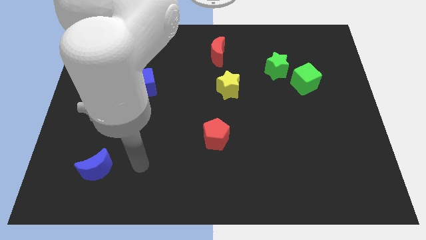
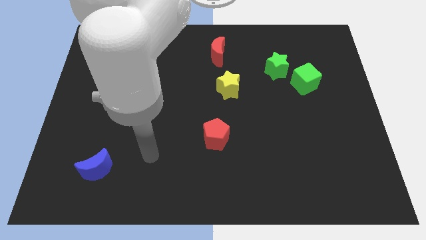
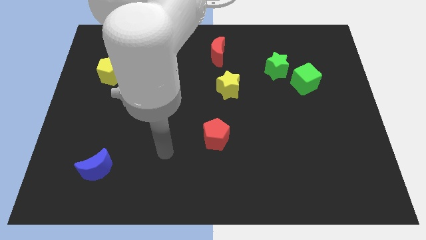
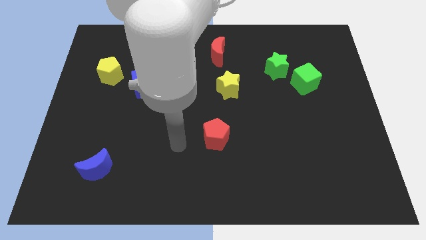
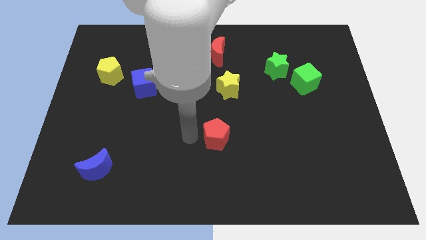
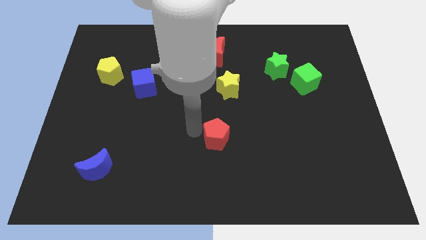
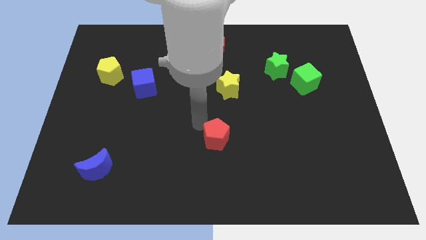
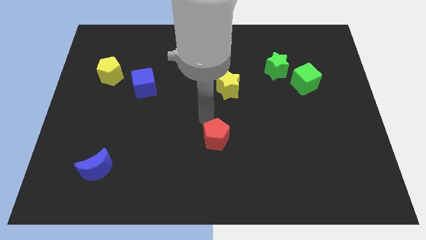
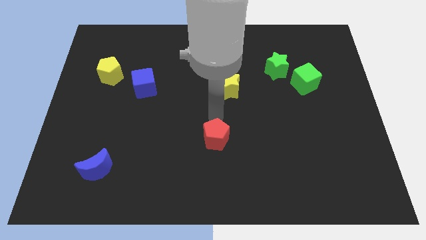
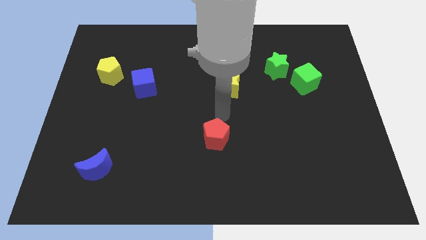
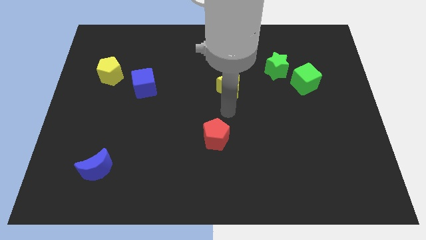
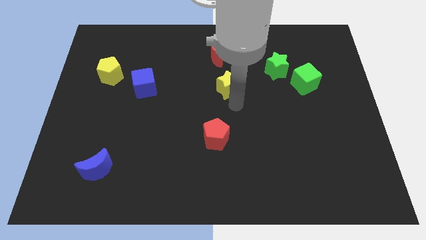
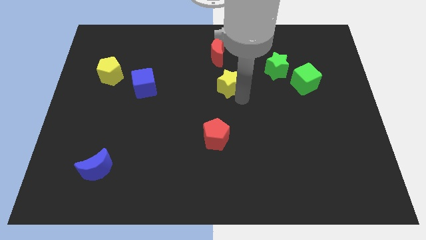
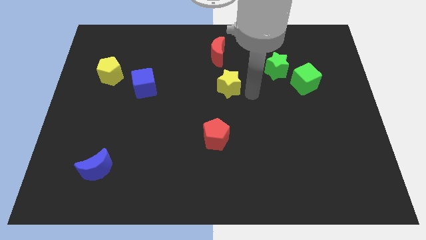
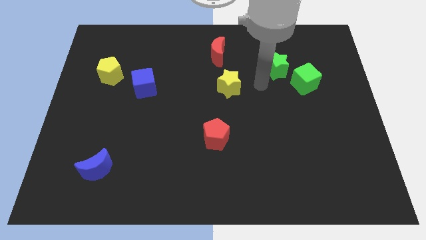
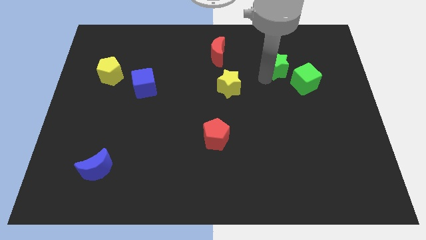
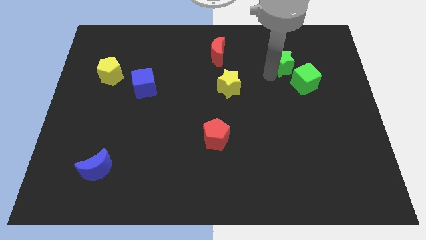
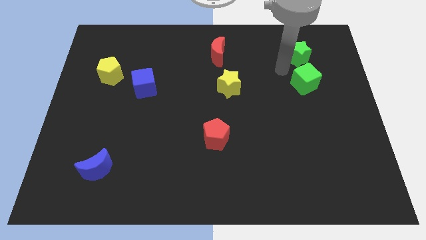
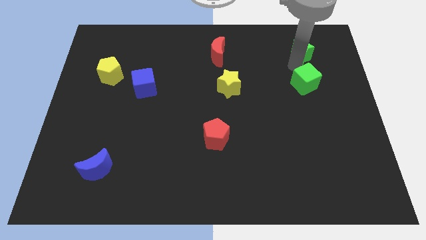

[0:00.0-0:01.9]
separate the green cube from the green star

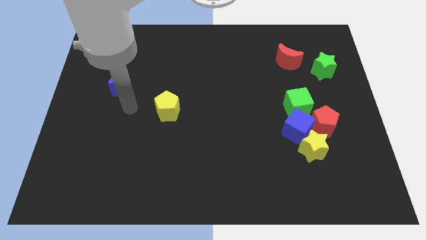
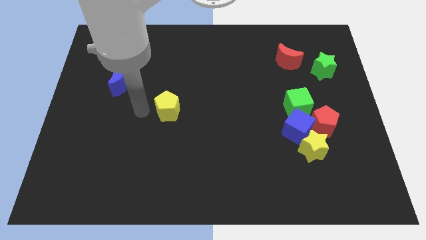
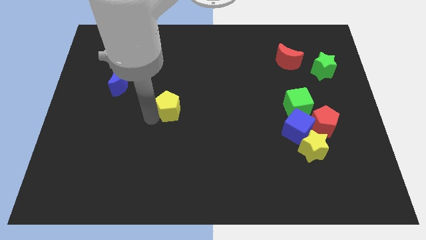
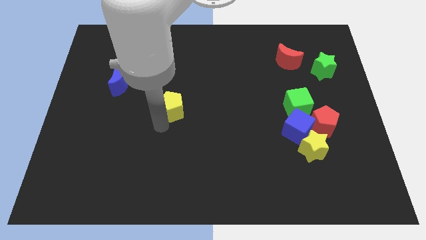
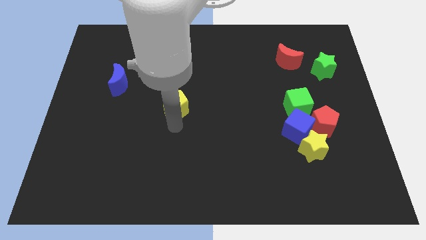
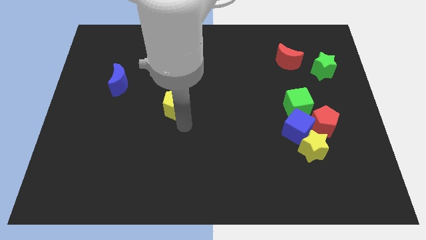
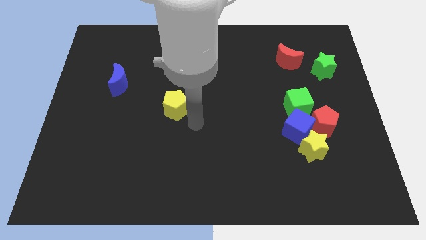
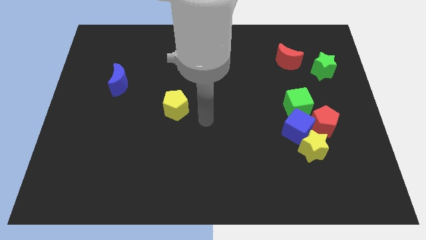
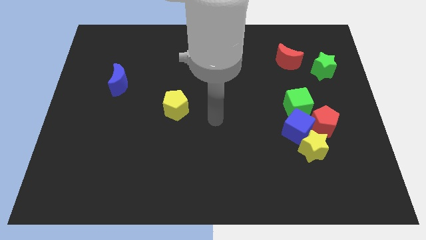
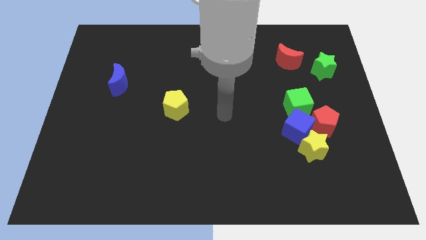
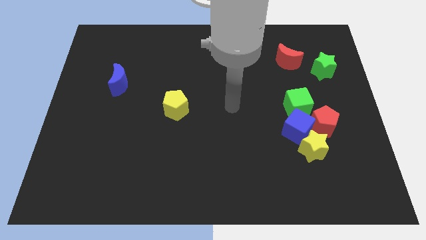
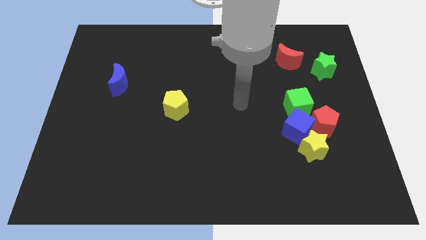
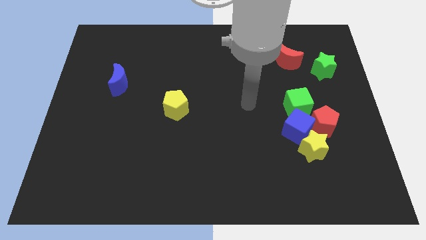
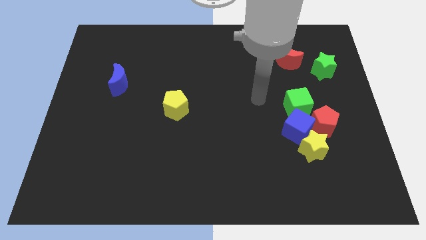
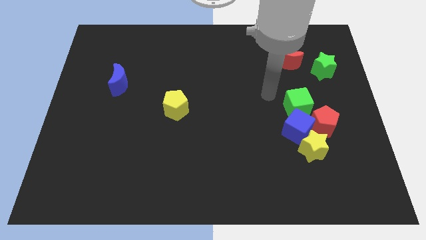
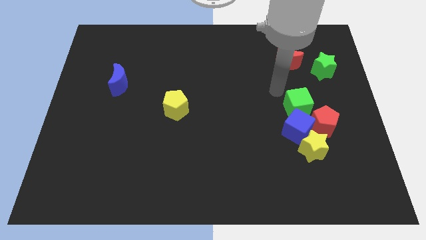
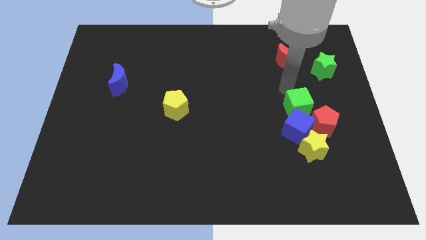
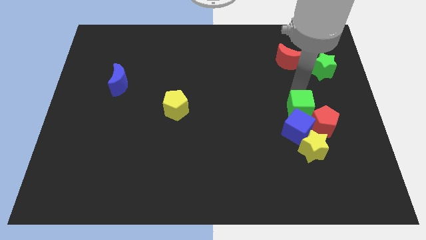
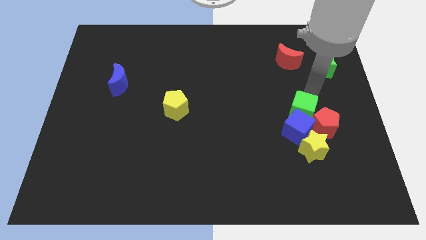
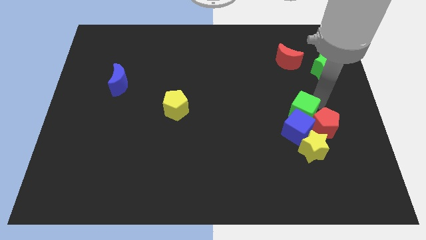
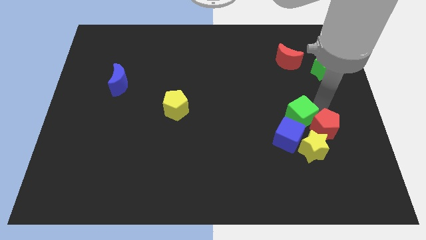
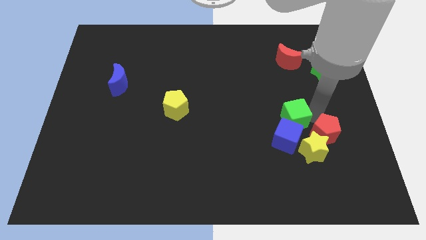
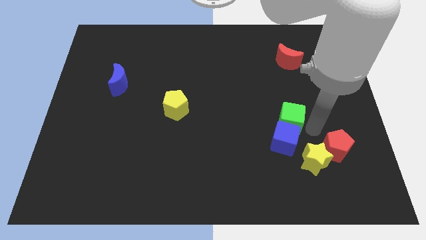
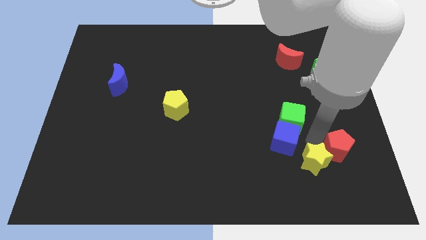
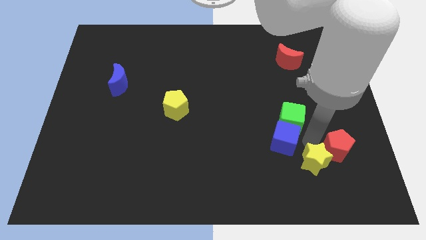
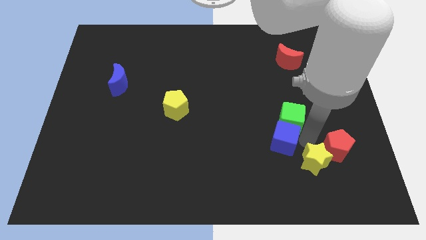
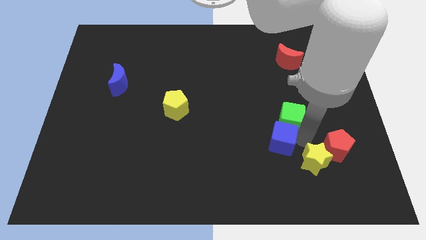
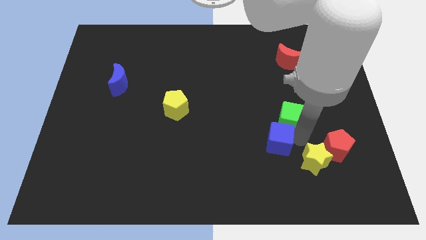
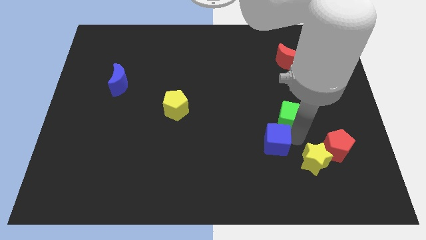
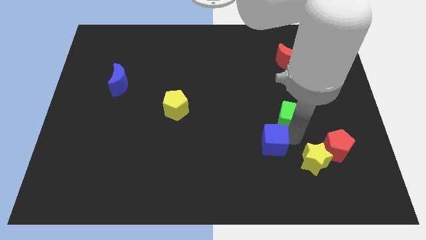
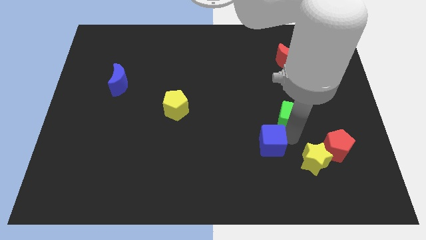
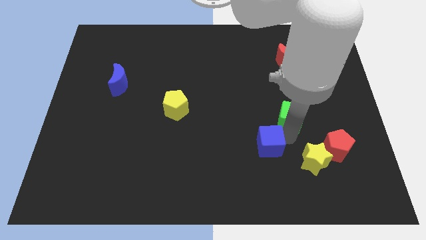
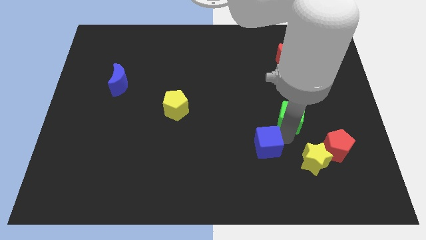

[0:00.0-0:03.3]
move the blue cube away from the group of blocks

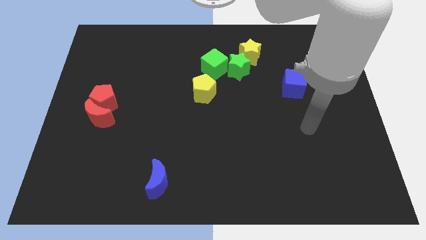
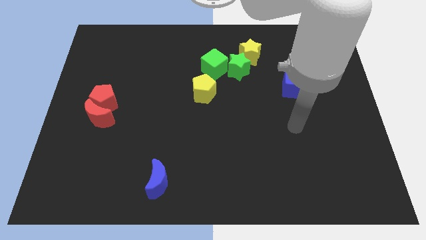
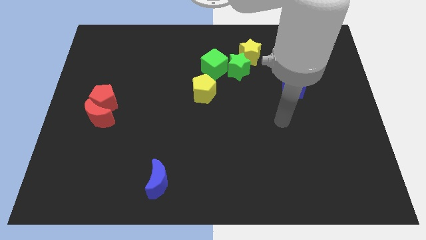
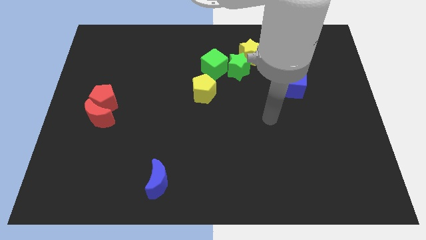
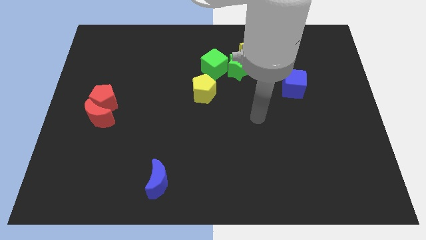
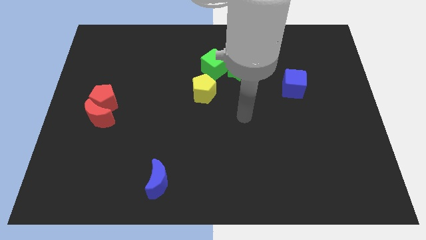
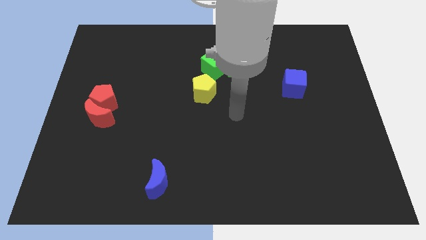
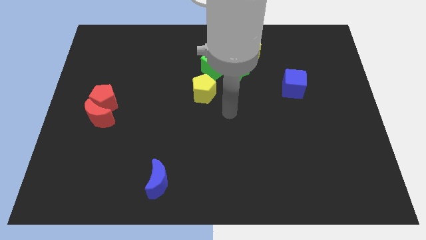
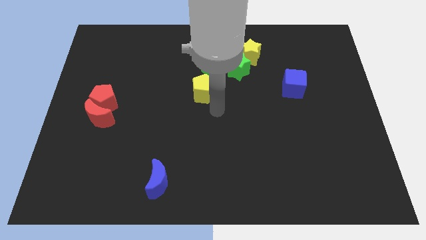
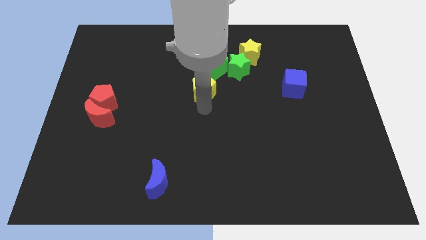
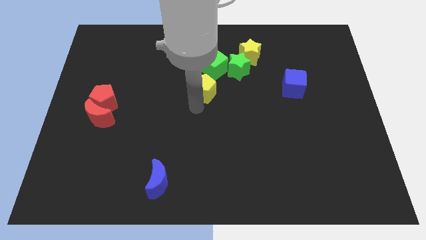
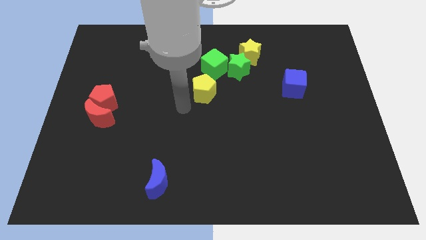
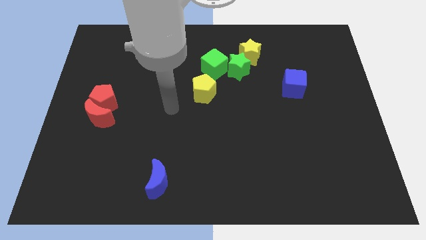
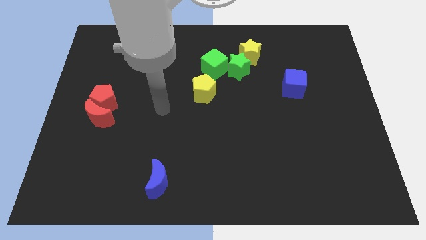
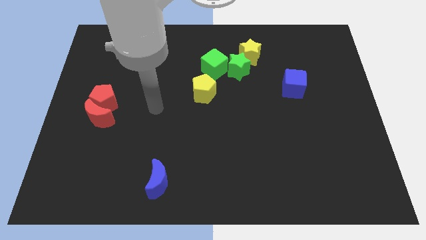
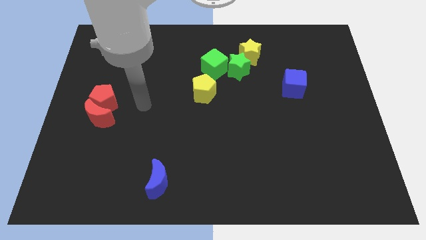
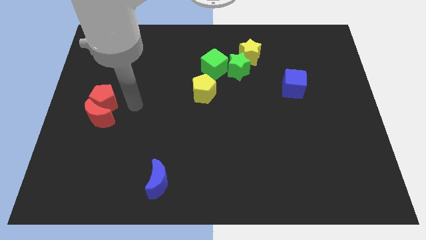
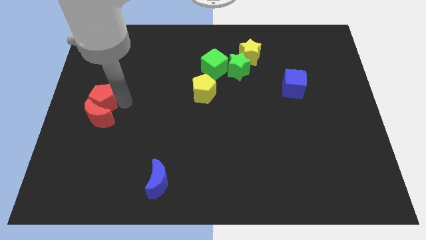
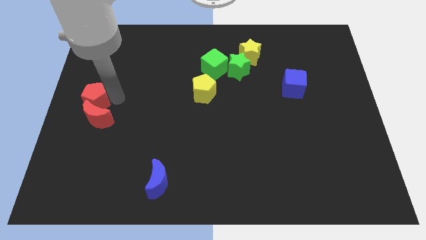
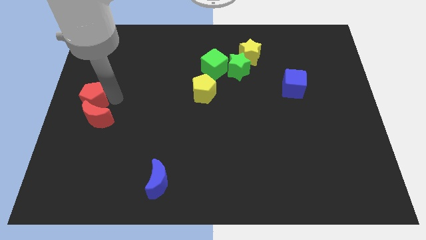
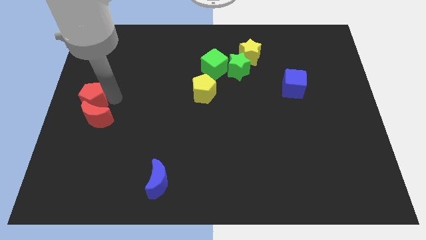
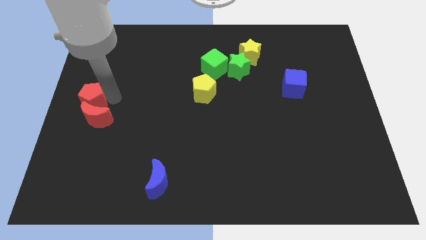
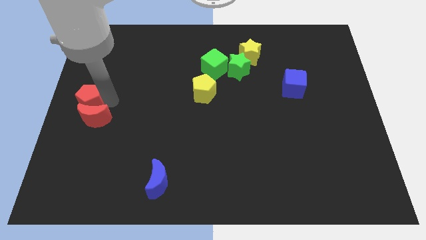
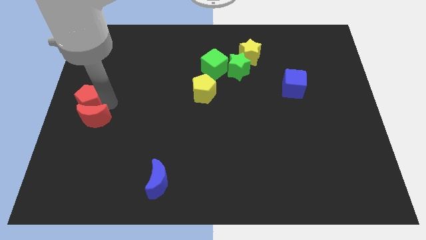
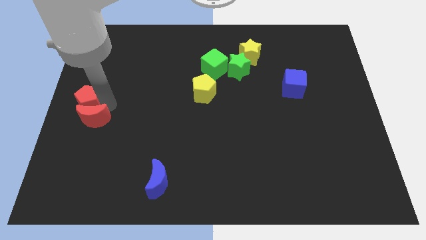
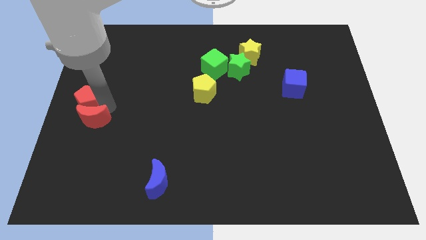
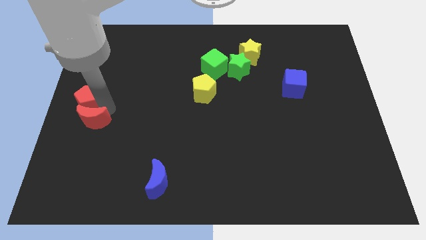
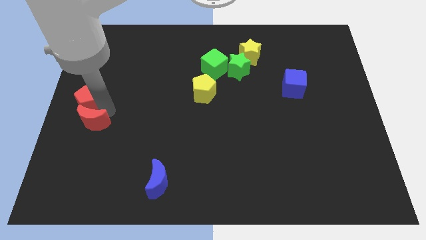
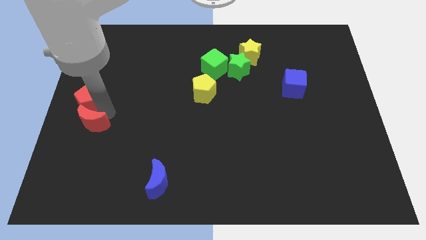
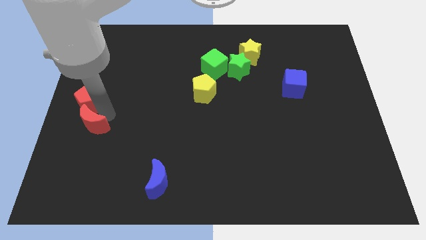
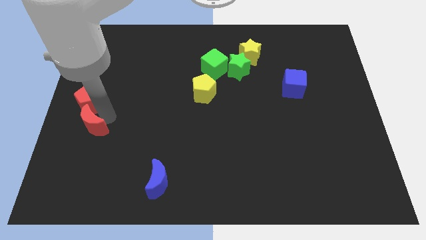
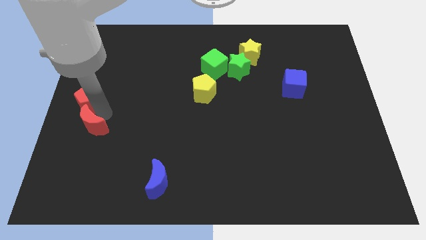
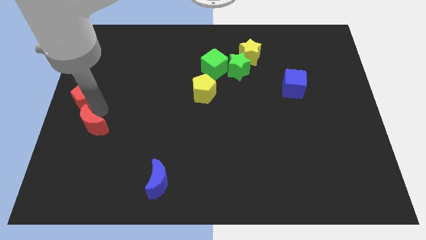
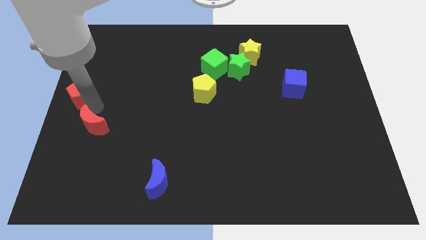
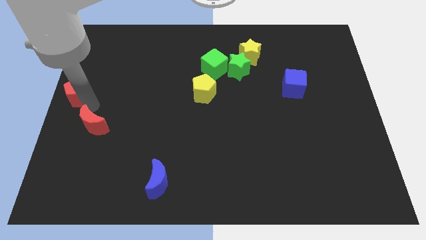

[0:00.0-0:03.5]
pull the red moon apart from the red pentagon

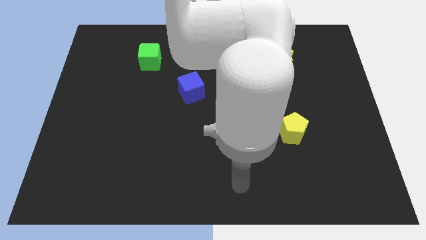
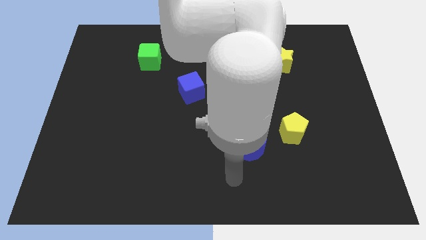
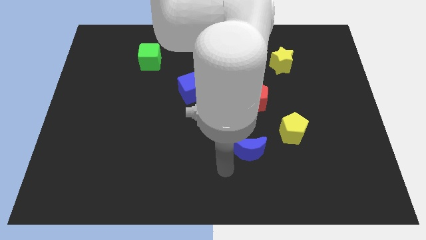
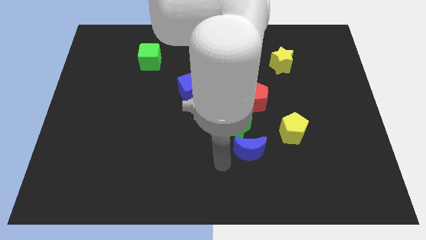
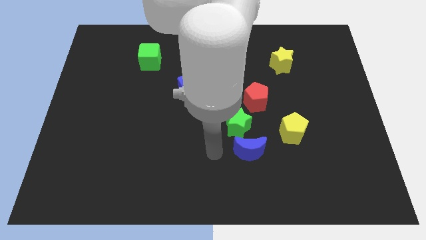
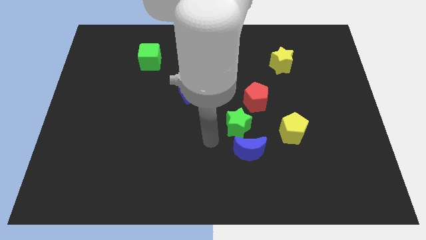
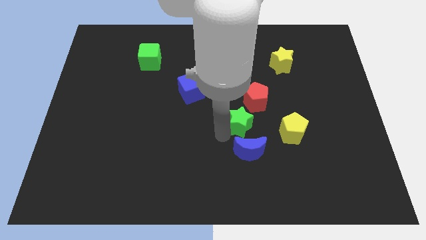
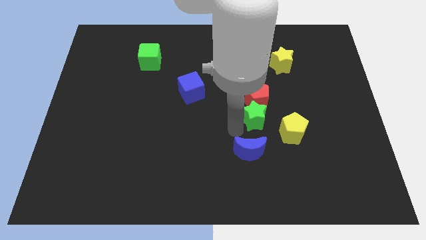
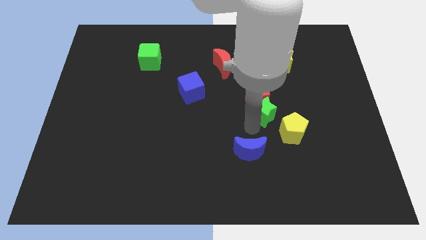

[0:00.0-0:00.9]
move the blue moon away from the green star
